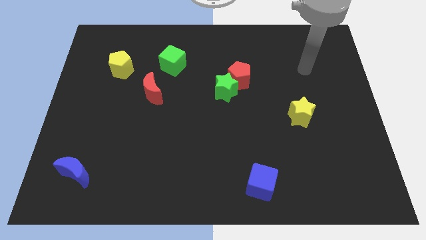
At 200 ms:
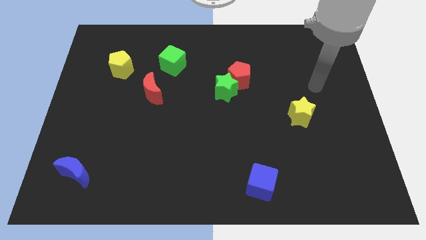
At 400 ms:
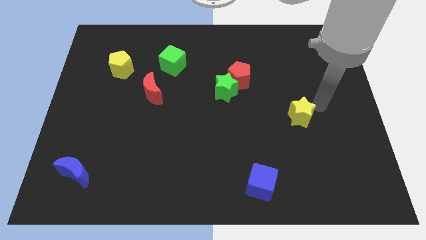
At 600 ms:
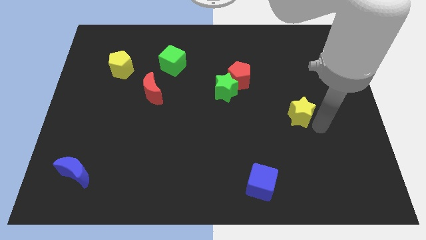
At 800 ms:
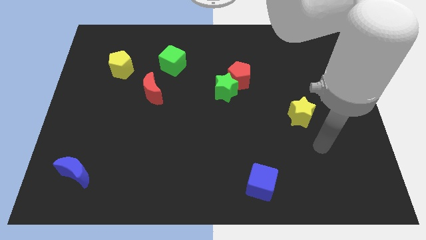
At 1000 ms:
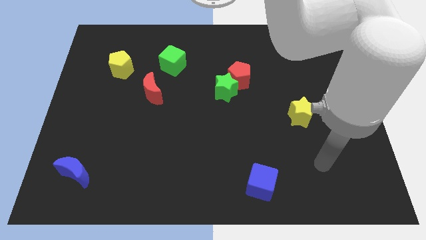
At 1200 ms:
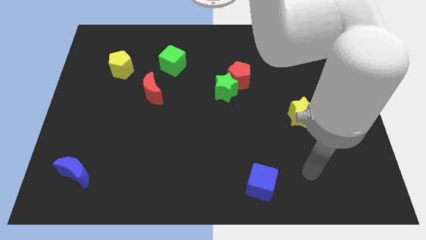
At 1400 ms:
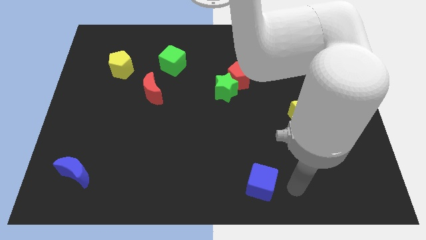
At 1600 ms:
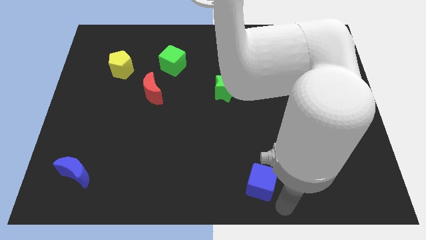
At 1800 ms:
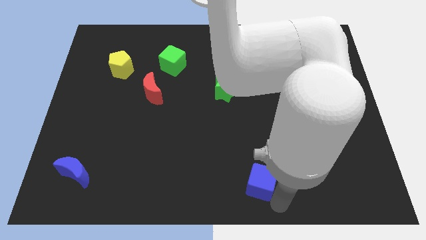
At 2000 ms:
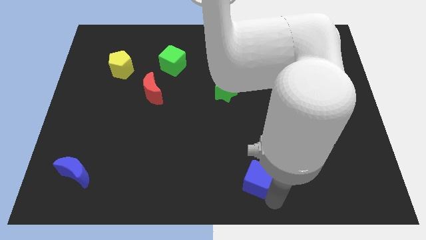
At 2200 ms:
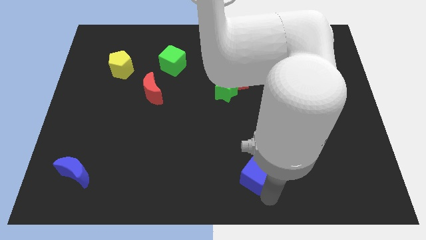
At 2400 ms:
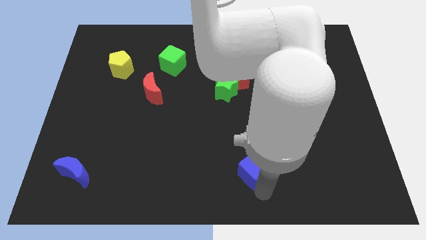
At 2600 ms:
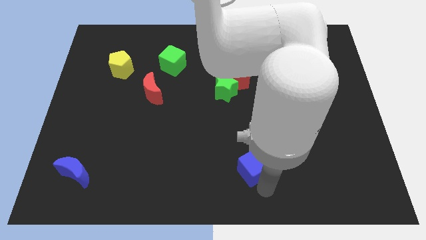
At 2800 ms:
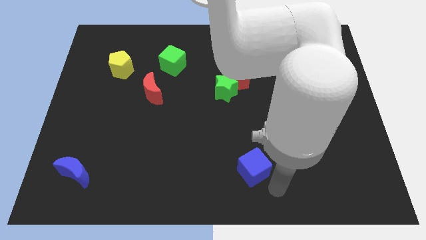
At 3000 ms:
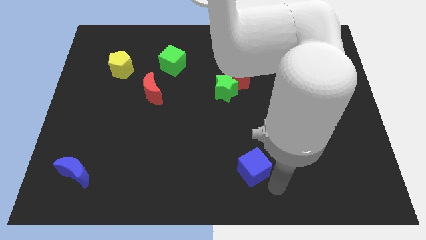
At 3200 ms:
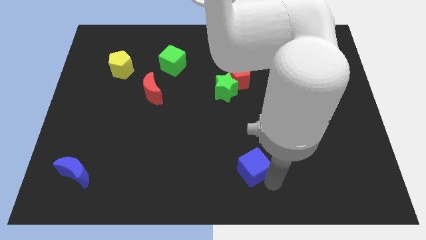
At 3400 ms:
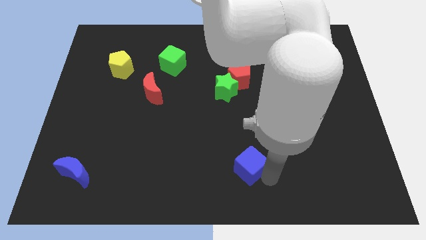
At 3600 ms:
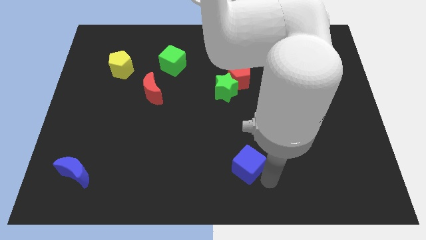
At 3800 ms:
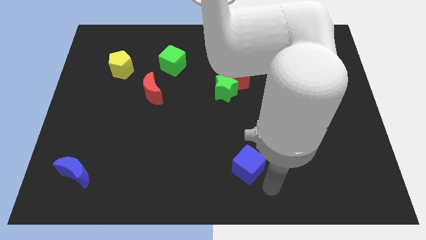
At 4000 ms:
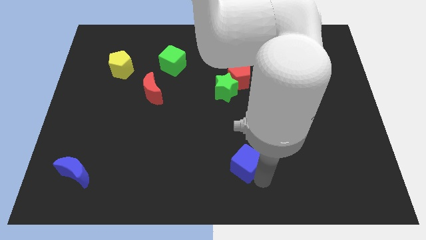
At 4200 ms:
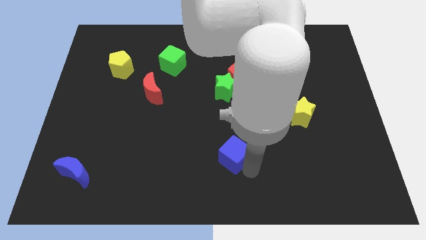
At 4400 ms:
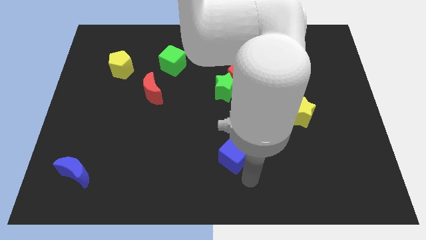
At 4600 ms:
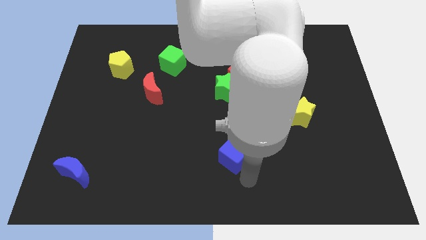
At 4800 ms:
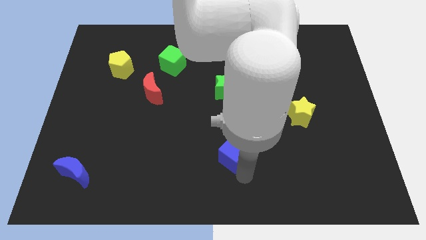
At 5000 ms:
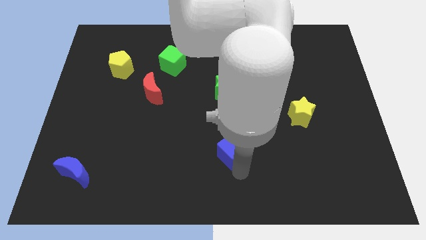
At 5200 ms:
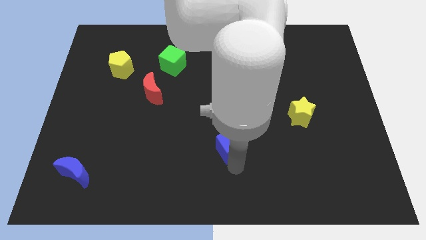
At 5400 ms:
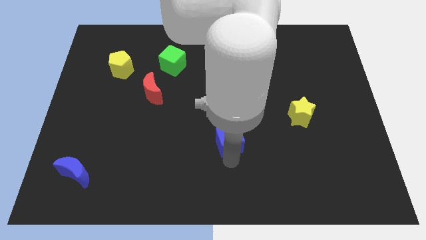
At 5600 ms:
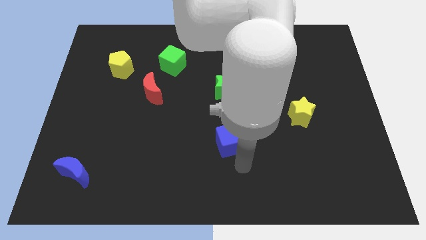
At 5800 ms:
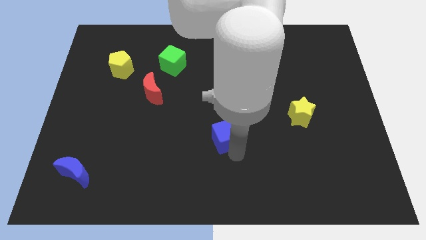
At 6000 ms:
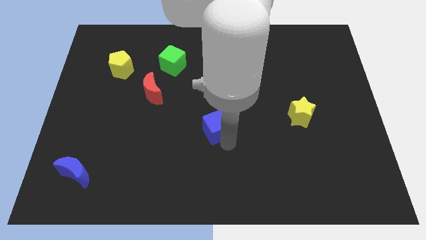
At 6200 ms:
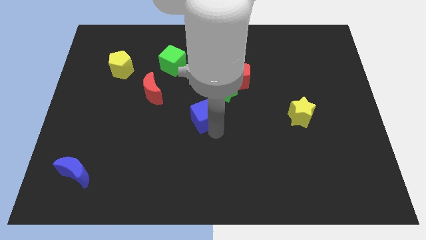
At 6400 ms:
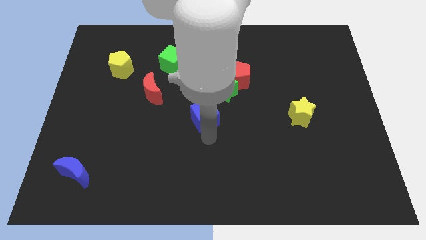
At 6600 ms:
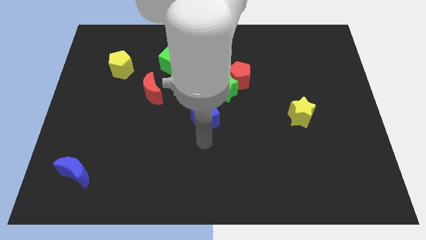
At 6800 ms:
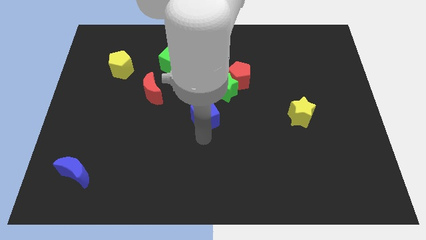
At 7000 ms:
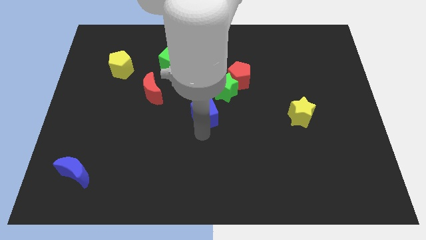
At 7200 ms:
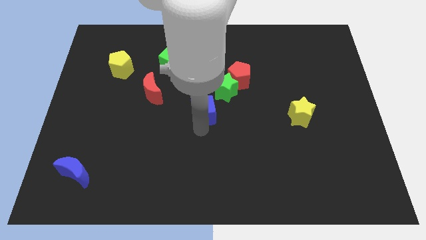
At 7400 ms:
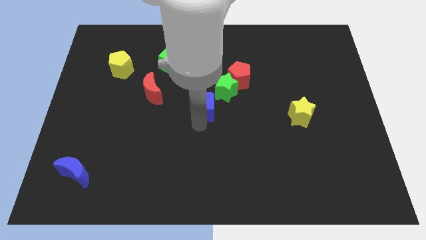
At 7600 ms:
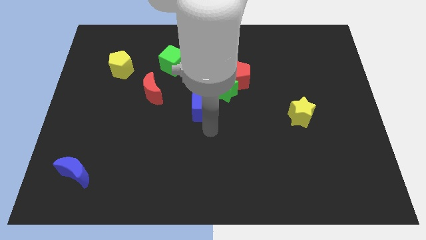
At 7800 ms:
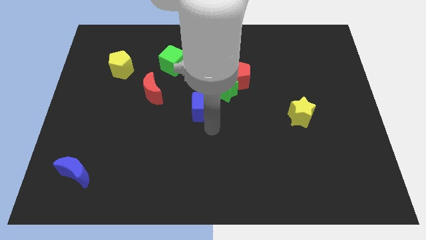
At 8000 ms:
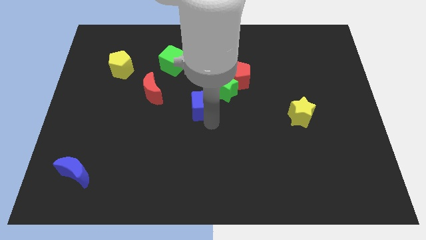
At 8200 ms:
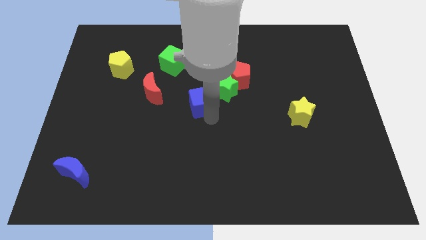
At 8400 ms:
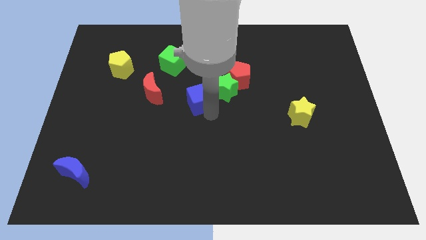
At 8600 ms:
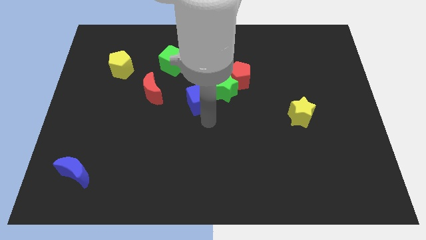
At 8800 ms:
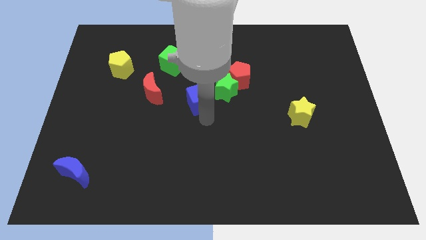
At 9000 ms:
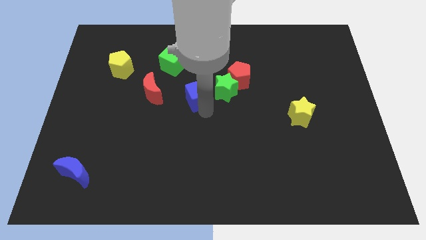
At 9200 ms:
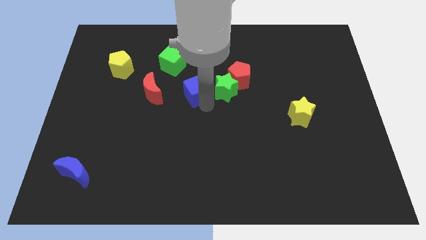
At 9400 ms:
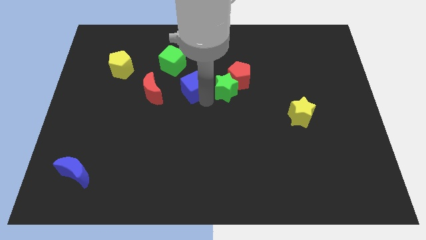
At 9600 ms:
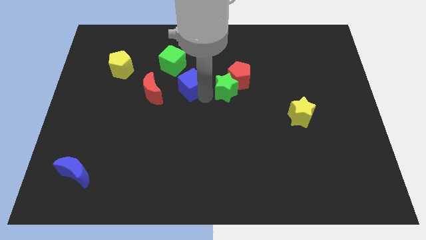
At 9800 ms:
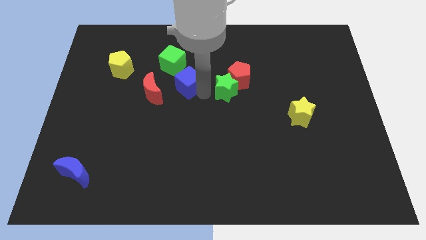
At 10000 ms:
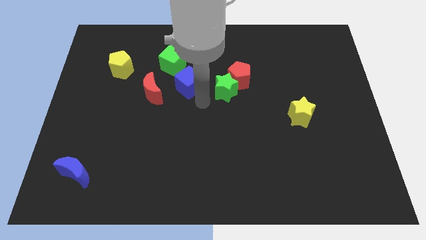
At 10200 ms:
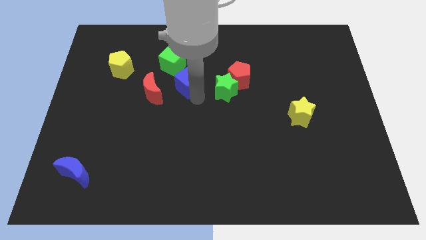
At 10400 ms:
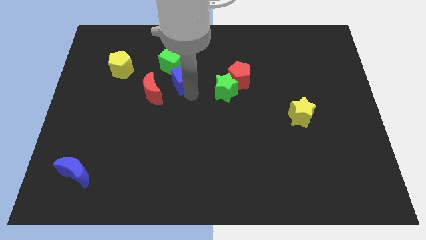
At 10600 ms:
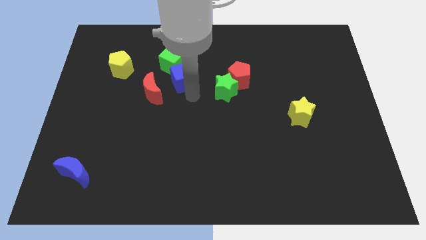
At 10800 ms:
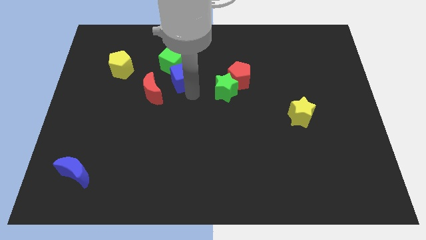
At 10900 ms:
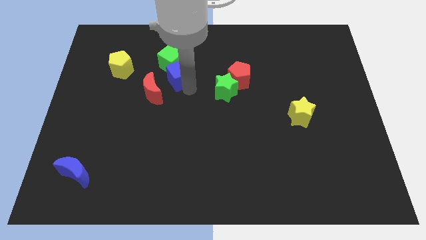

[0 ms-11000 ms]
slide the blue cube close to the green cube

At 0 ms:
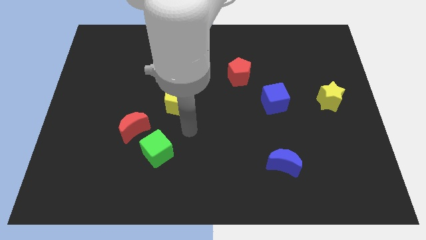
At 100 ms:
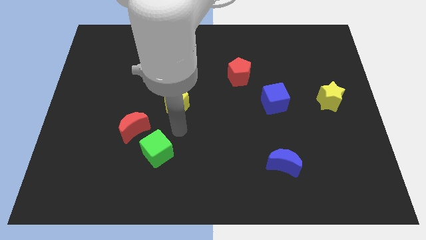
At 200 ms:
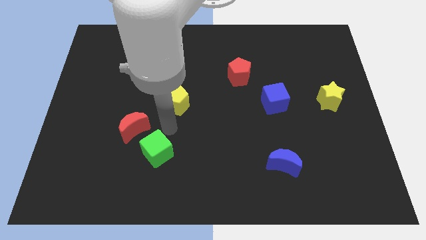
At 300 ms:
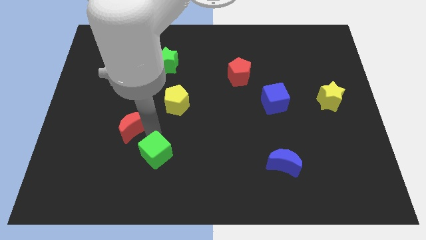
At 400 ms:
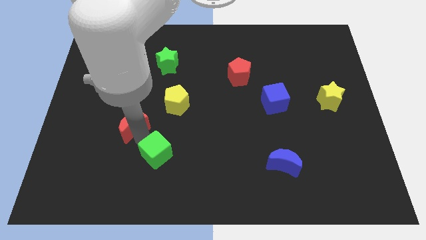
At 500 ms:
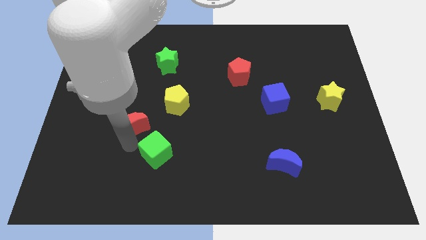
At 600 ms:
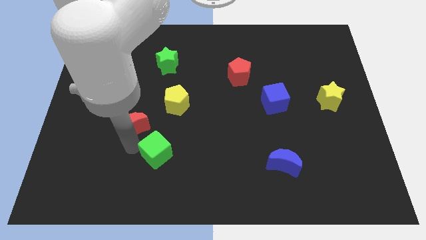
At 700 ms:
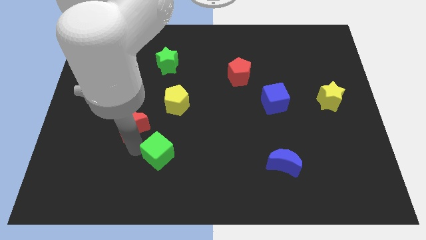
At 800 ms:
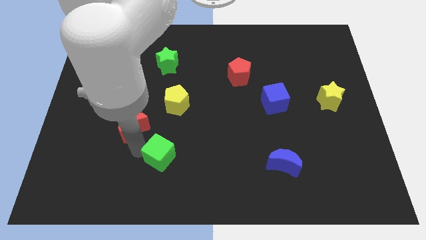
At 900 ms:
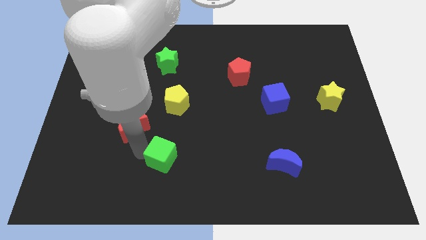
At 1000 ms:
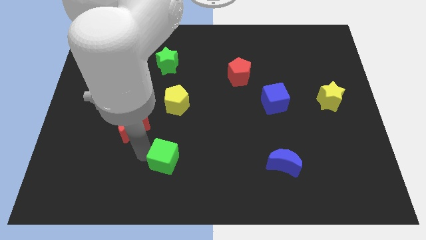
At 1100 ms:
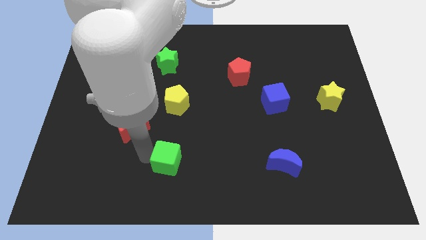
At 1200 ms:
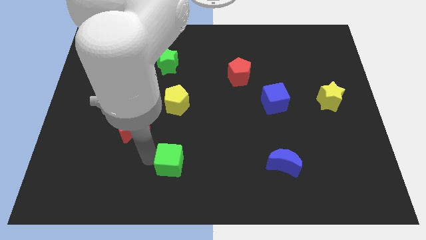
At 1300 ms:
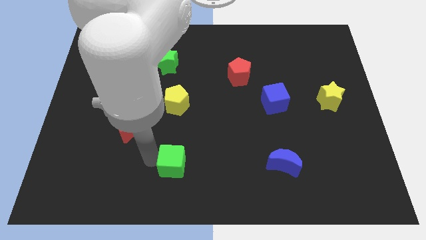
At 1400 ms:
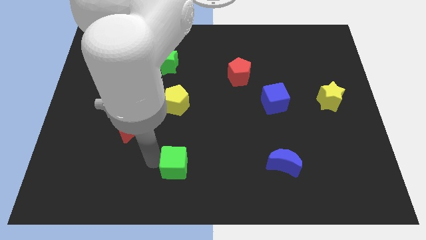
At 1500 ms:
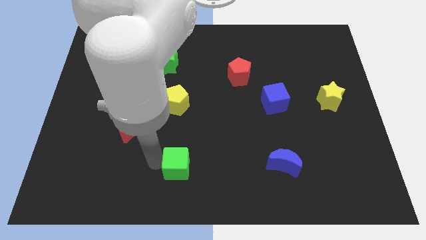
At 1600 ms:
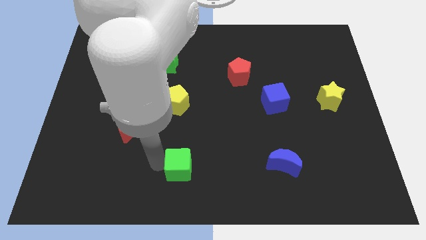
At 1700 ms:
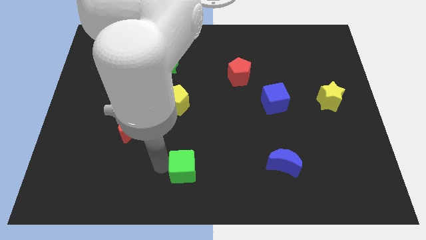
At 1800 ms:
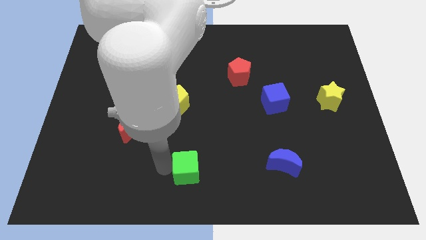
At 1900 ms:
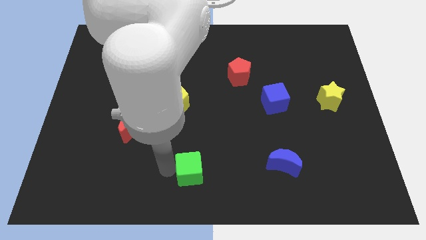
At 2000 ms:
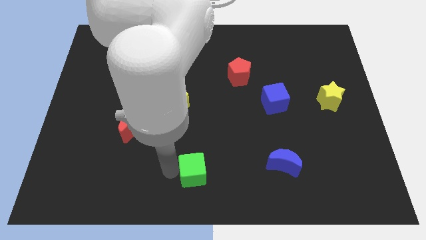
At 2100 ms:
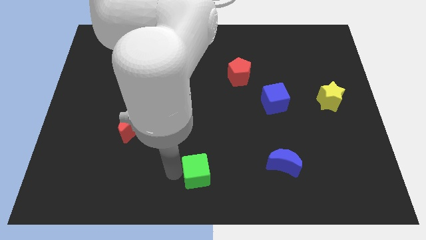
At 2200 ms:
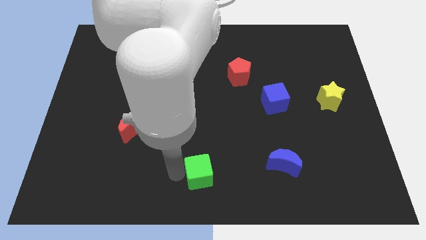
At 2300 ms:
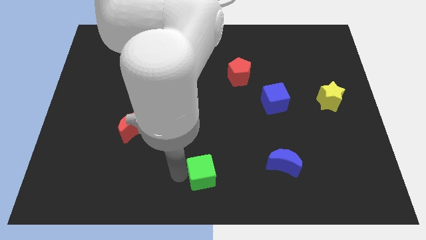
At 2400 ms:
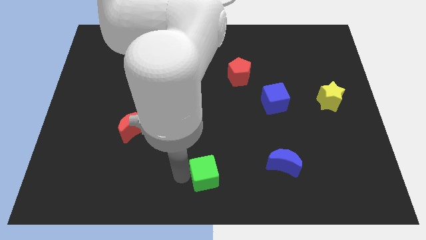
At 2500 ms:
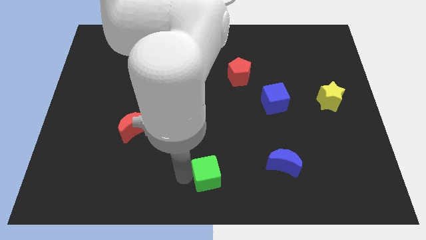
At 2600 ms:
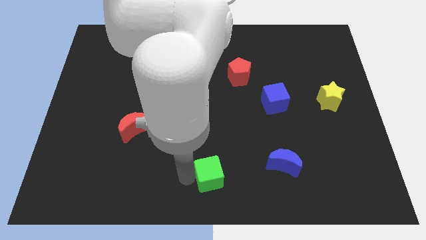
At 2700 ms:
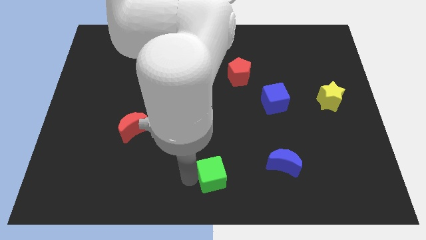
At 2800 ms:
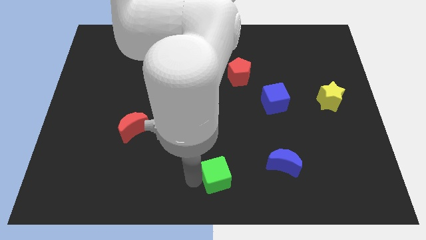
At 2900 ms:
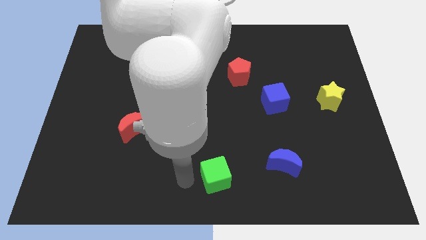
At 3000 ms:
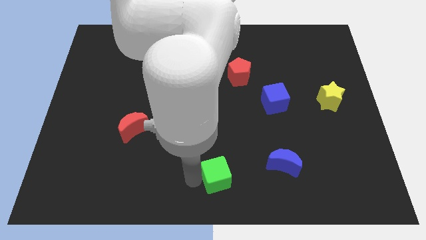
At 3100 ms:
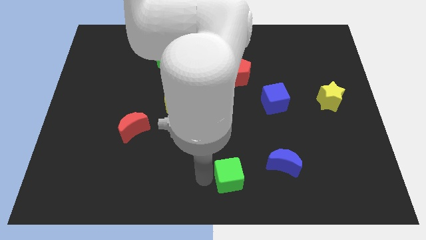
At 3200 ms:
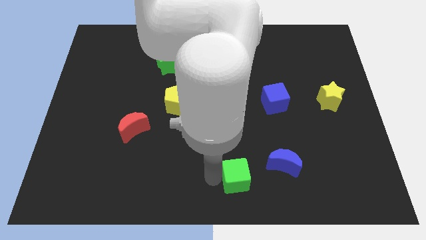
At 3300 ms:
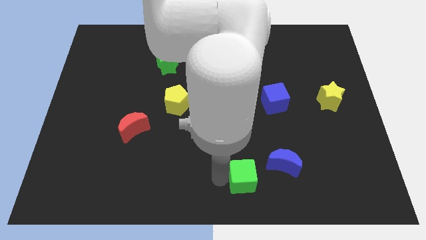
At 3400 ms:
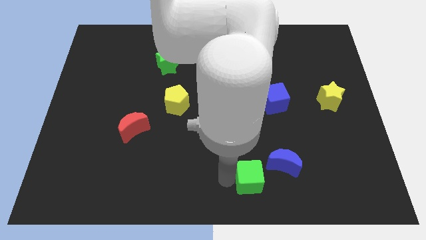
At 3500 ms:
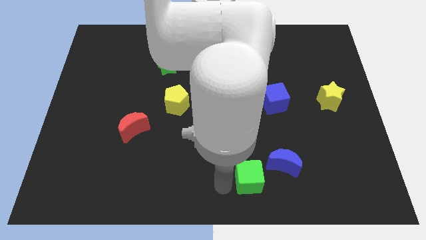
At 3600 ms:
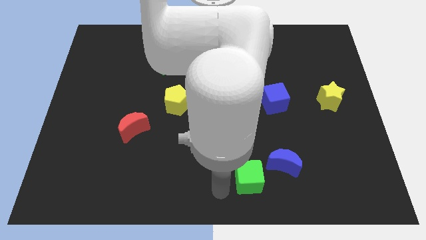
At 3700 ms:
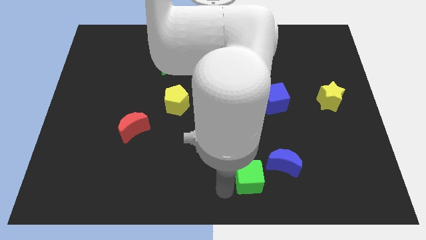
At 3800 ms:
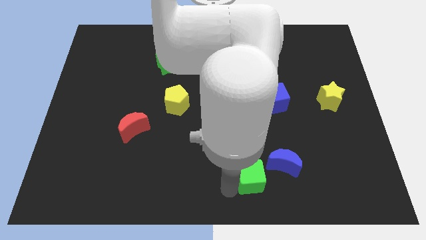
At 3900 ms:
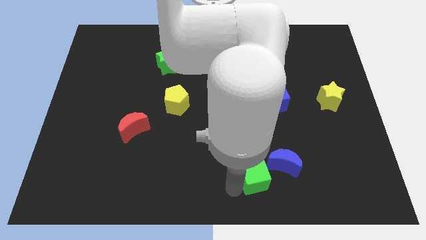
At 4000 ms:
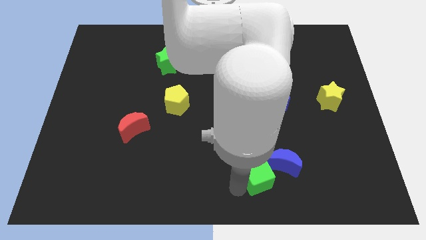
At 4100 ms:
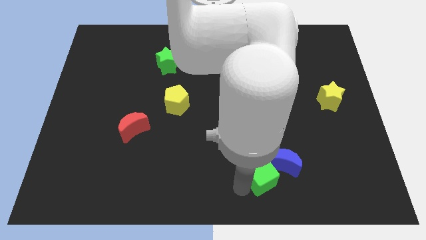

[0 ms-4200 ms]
move the green cube close to the blue moon
